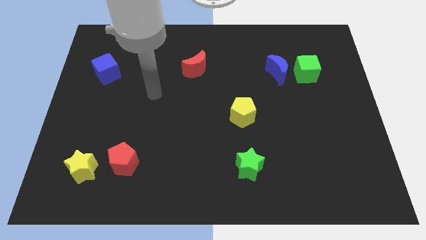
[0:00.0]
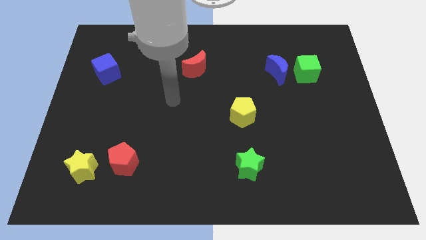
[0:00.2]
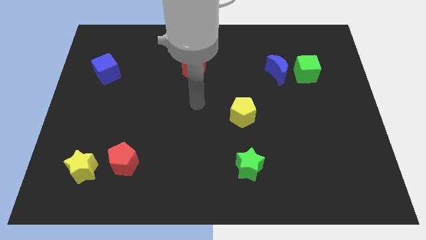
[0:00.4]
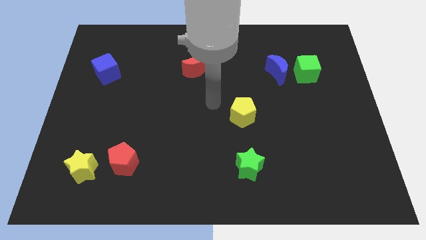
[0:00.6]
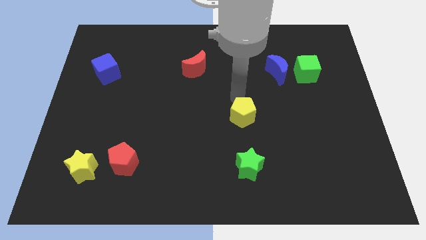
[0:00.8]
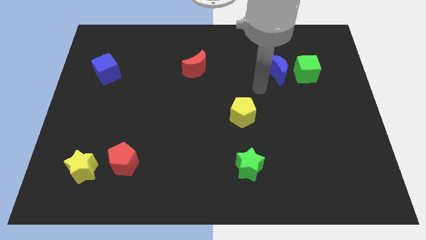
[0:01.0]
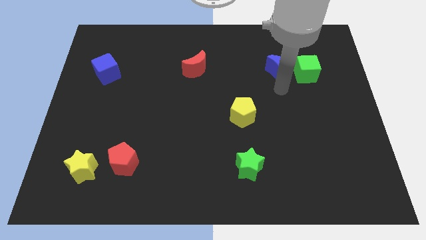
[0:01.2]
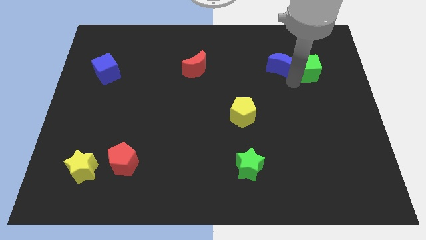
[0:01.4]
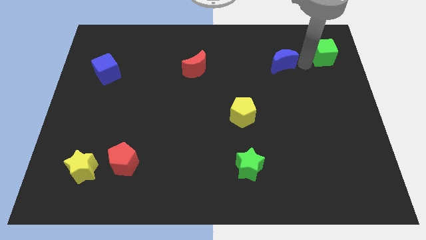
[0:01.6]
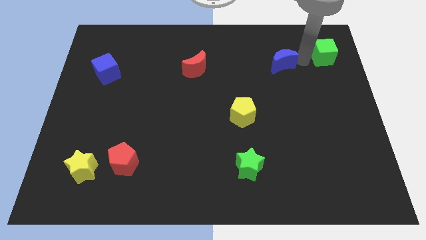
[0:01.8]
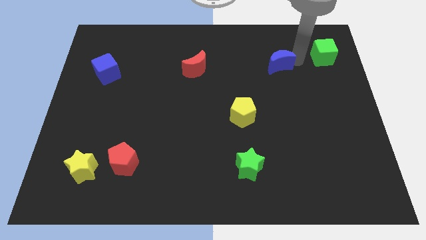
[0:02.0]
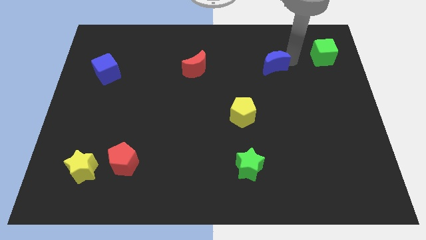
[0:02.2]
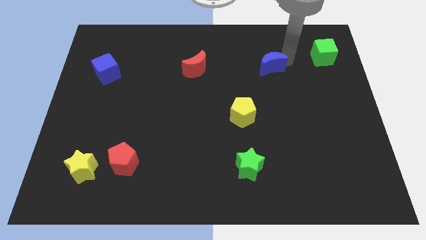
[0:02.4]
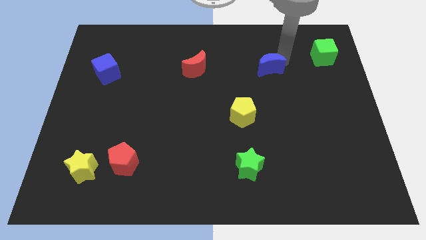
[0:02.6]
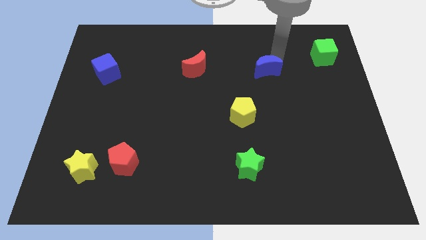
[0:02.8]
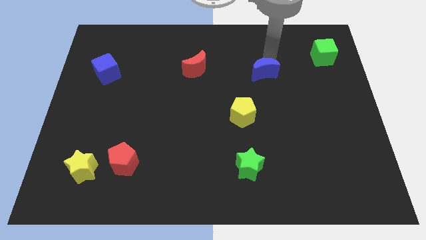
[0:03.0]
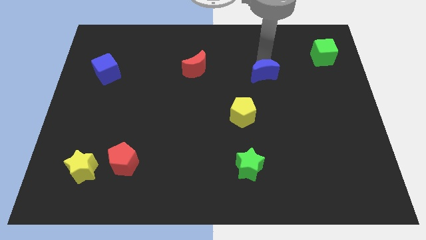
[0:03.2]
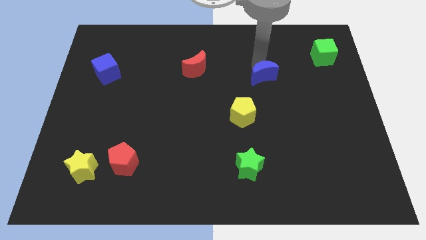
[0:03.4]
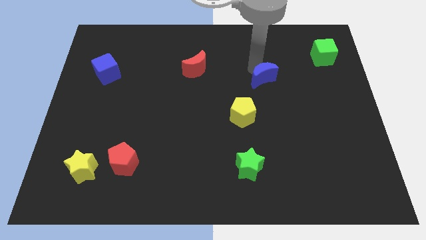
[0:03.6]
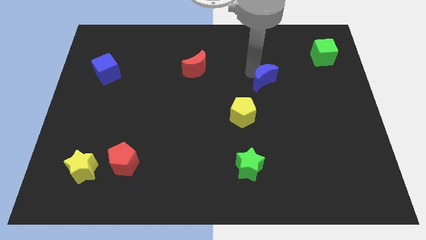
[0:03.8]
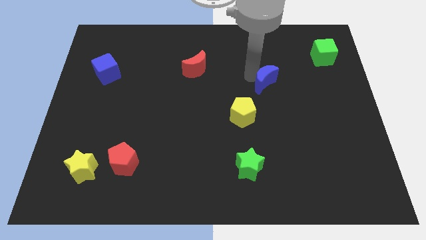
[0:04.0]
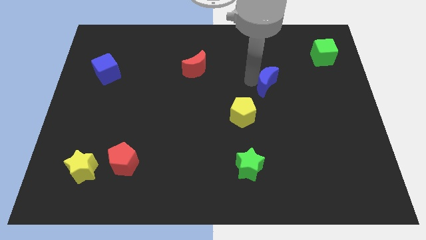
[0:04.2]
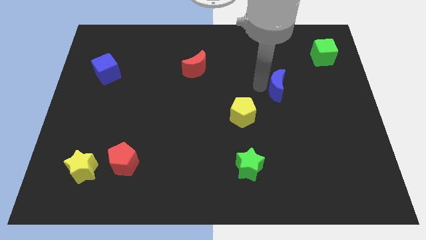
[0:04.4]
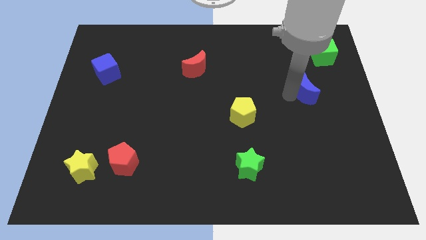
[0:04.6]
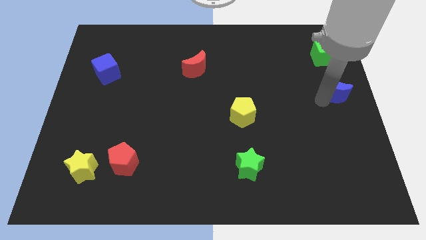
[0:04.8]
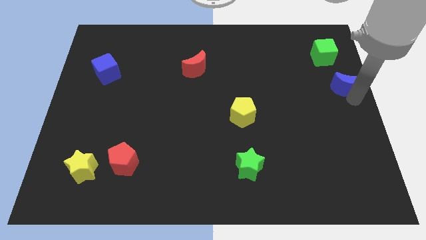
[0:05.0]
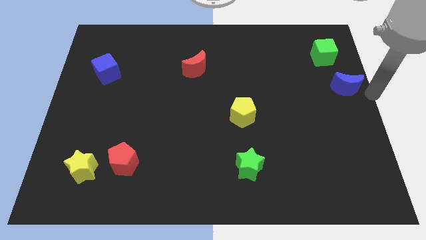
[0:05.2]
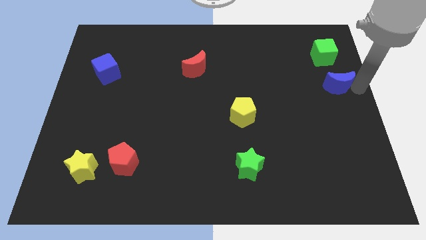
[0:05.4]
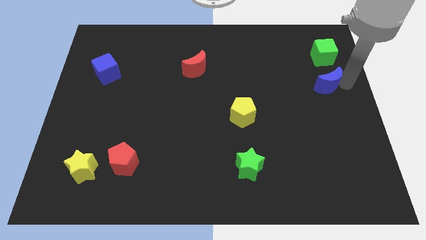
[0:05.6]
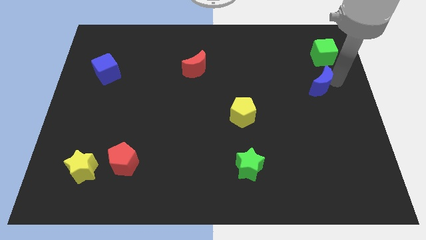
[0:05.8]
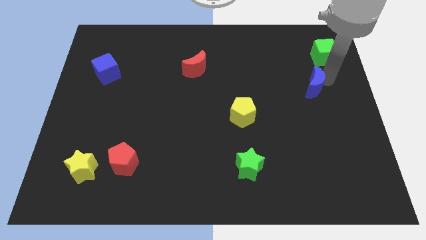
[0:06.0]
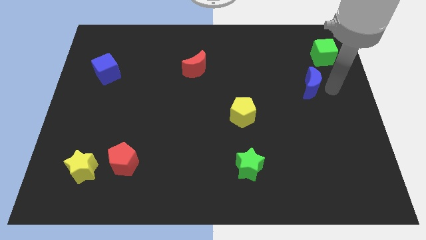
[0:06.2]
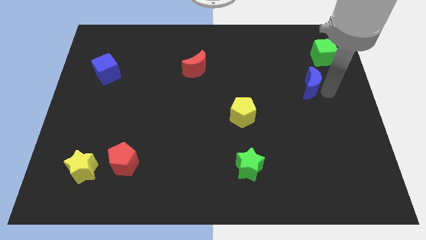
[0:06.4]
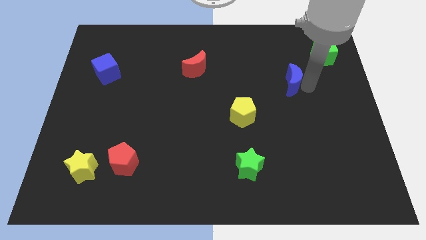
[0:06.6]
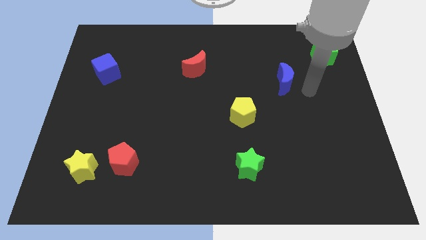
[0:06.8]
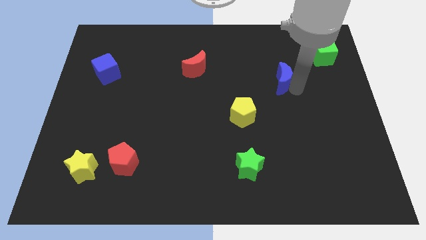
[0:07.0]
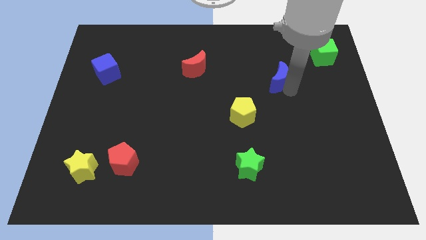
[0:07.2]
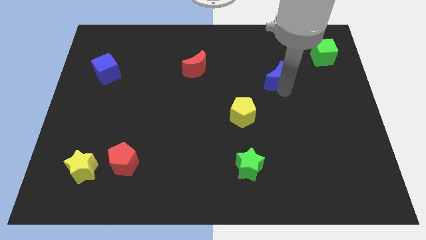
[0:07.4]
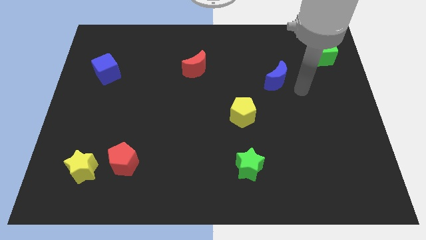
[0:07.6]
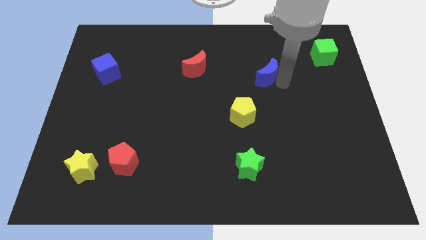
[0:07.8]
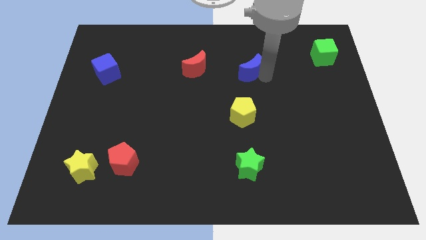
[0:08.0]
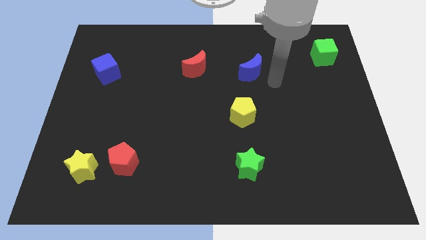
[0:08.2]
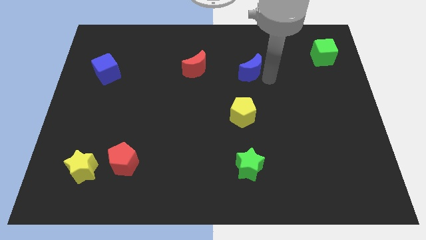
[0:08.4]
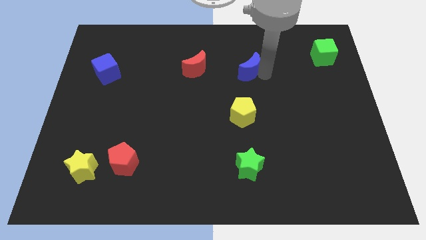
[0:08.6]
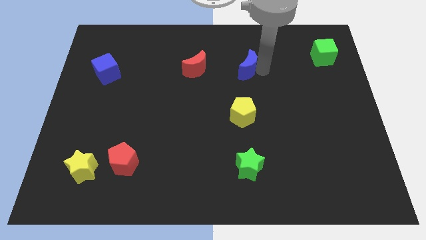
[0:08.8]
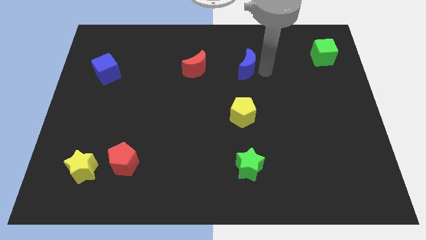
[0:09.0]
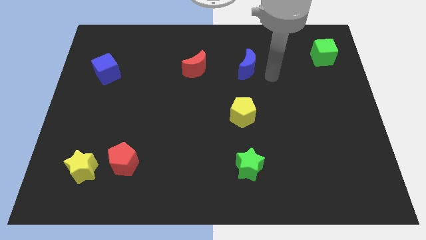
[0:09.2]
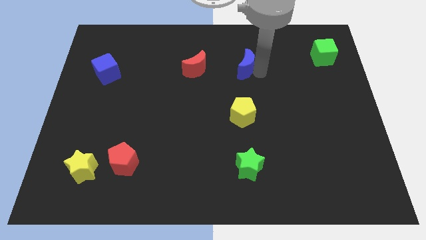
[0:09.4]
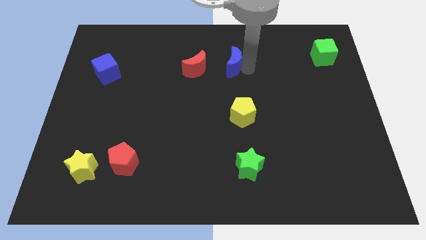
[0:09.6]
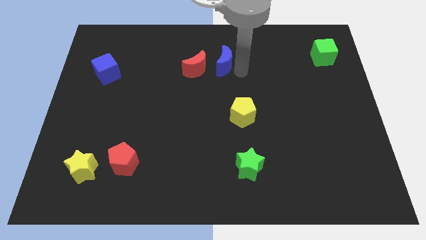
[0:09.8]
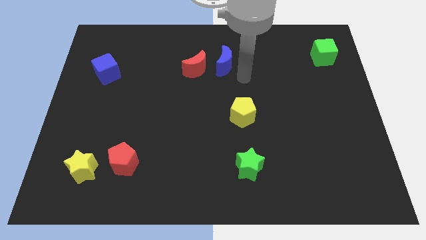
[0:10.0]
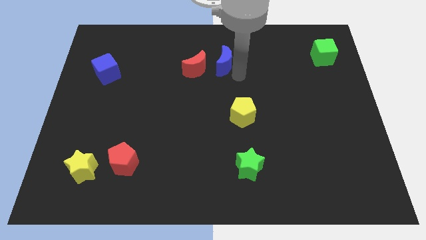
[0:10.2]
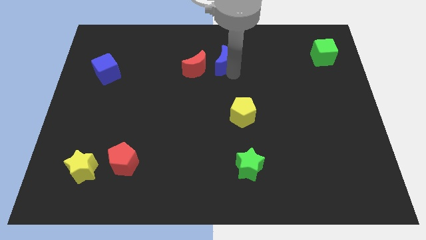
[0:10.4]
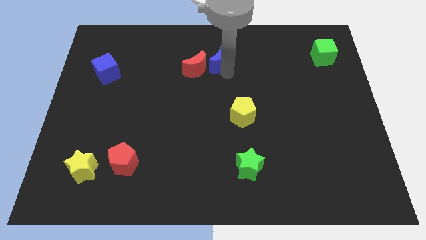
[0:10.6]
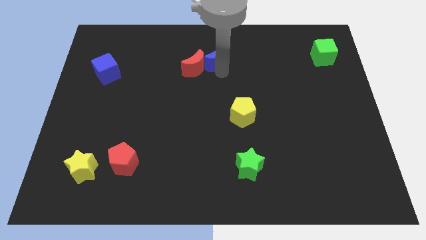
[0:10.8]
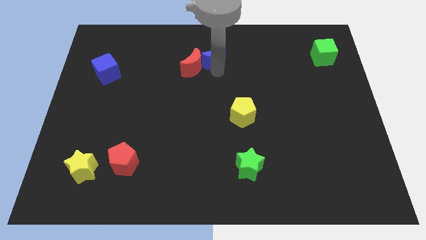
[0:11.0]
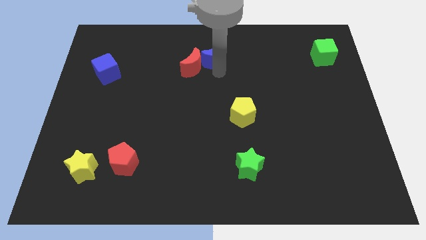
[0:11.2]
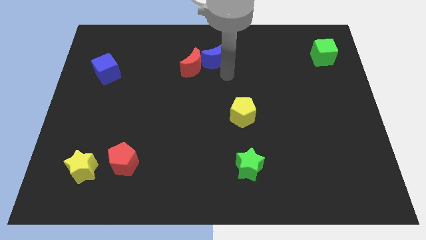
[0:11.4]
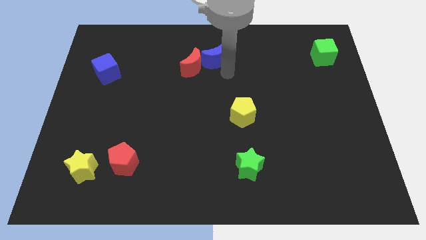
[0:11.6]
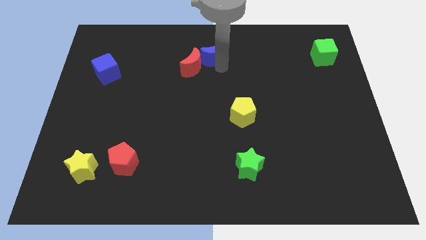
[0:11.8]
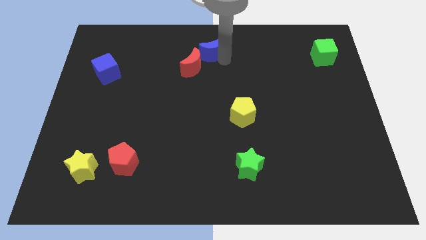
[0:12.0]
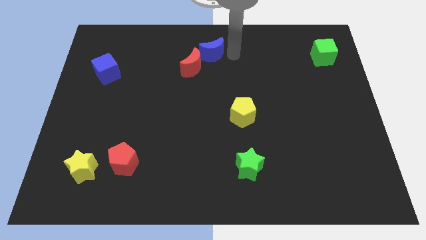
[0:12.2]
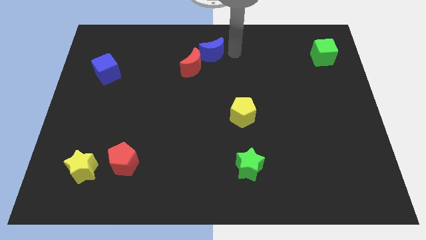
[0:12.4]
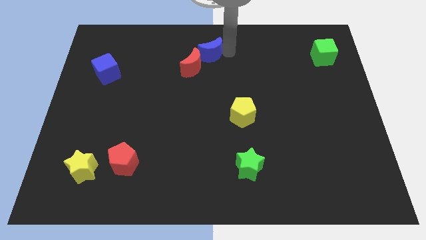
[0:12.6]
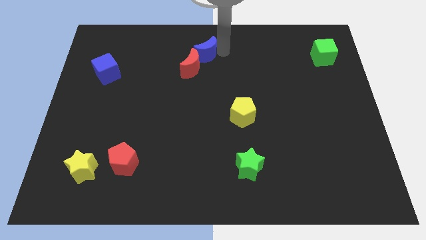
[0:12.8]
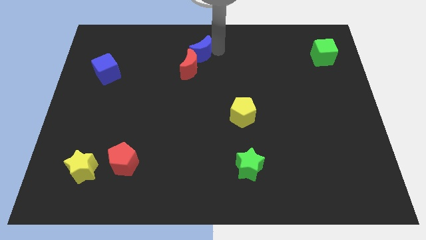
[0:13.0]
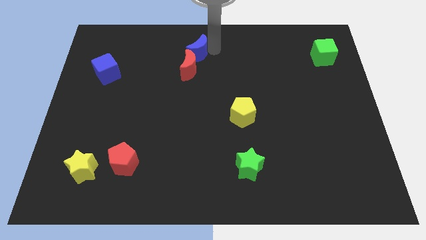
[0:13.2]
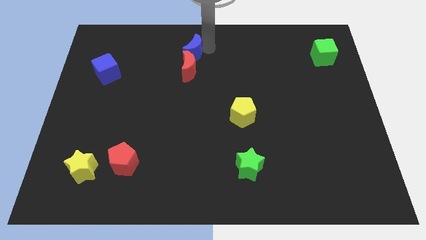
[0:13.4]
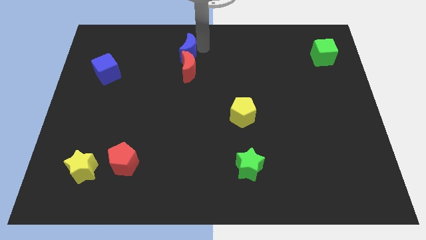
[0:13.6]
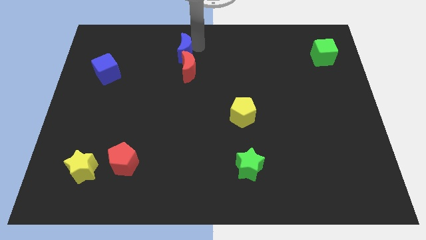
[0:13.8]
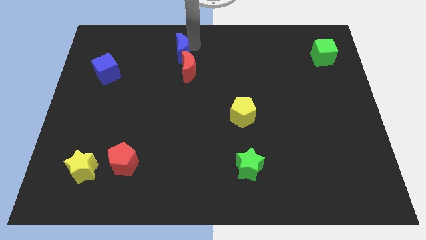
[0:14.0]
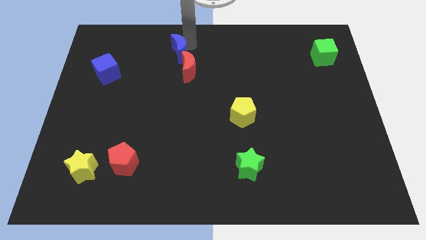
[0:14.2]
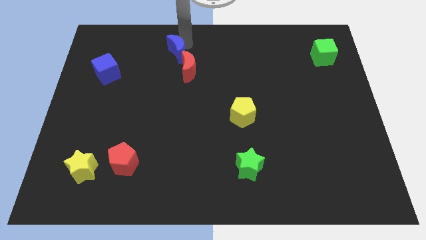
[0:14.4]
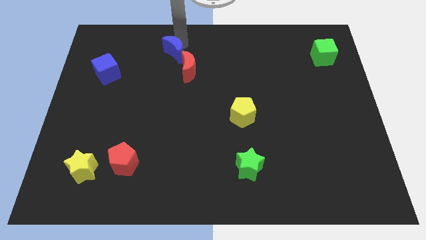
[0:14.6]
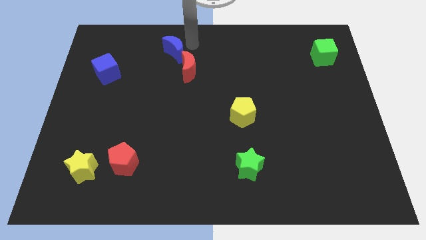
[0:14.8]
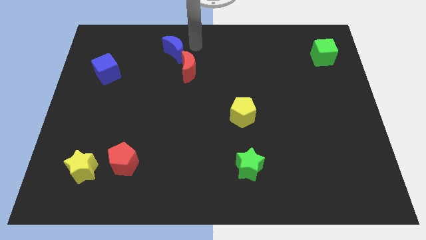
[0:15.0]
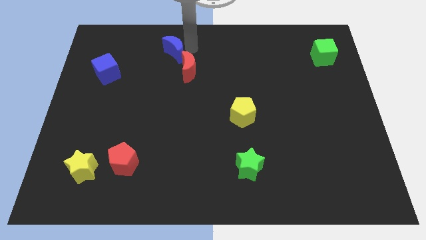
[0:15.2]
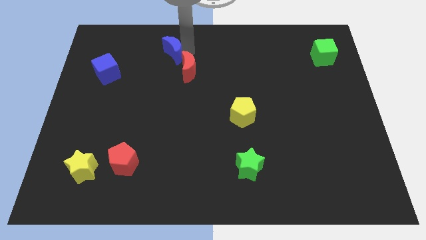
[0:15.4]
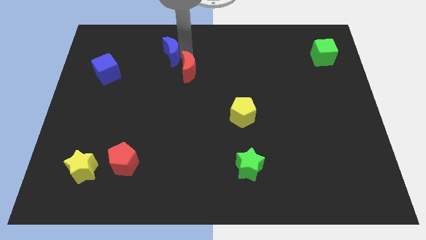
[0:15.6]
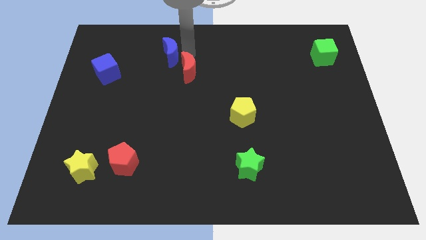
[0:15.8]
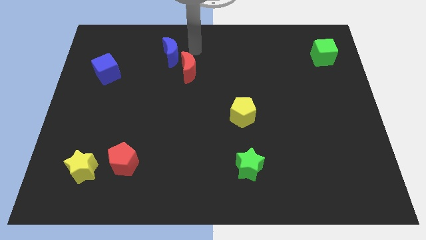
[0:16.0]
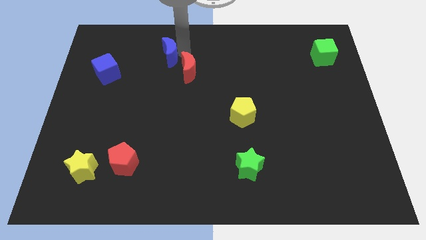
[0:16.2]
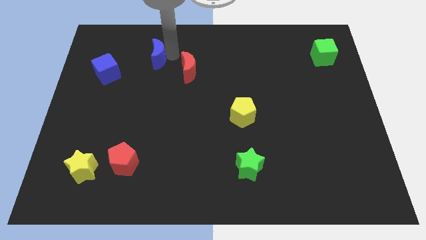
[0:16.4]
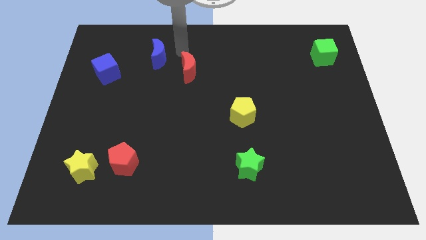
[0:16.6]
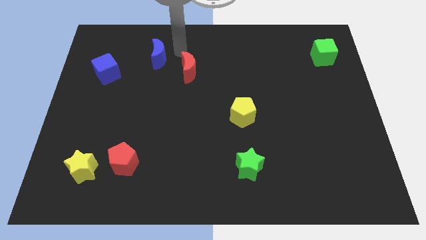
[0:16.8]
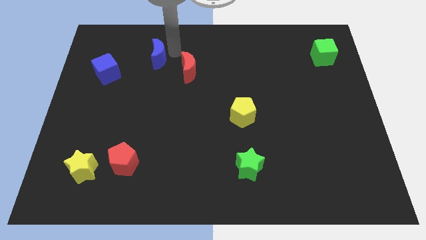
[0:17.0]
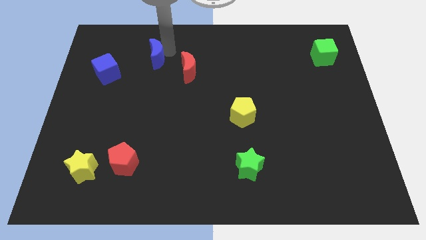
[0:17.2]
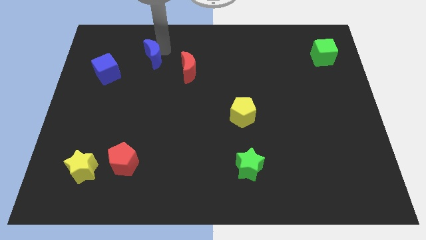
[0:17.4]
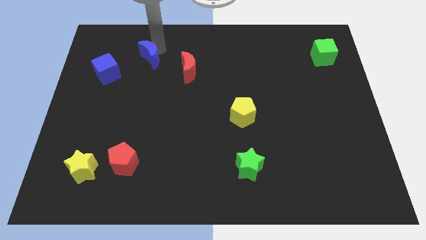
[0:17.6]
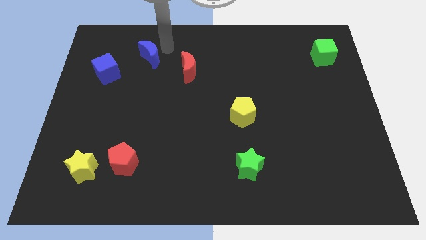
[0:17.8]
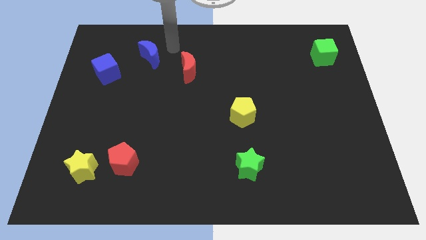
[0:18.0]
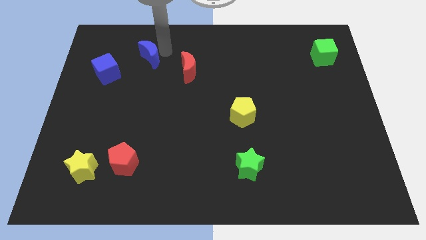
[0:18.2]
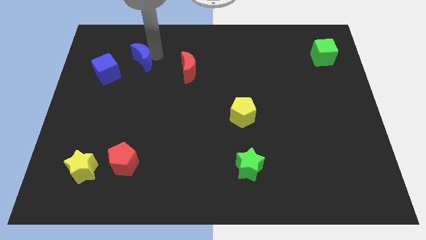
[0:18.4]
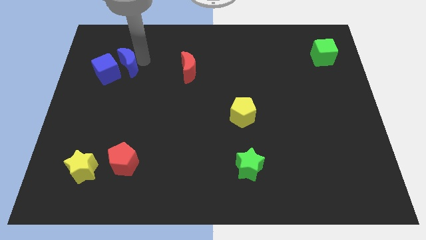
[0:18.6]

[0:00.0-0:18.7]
put the blue moon to the blue cube
